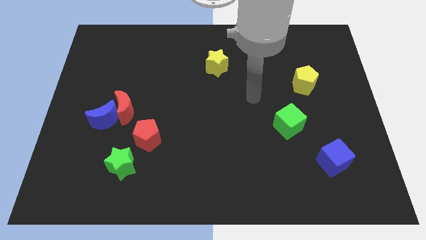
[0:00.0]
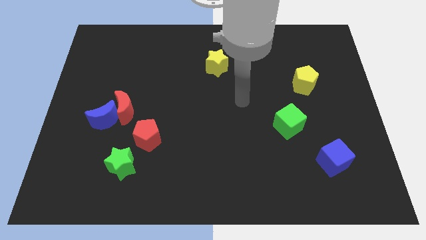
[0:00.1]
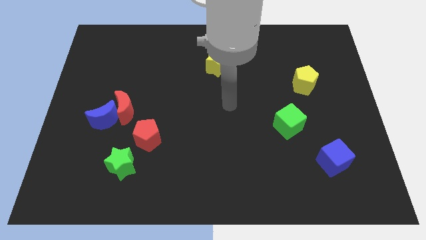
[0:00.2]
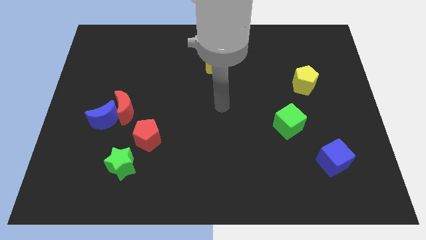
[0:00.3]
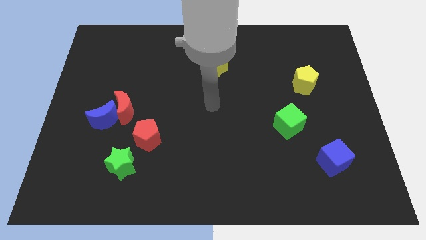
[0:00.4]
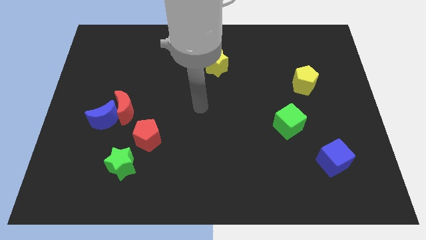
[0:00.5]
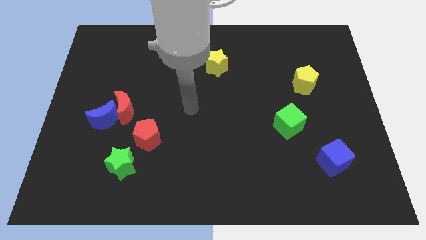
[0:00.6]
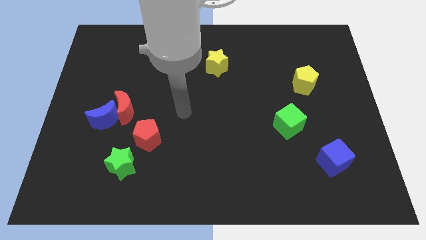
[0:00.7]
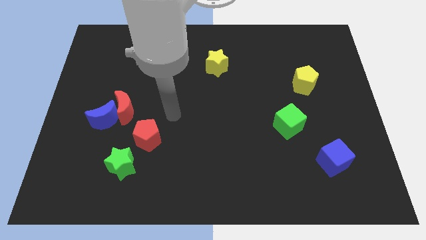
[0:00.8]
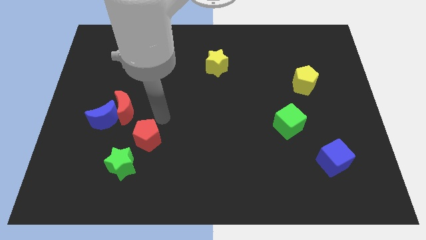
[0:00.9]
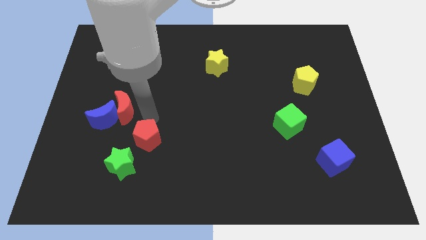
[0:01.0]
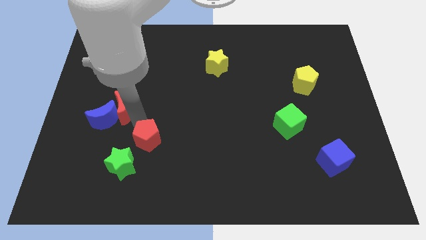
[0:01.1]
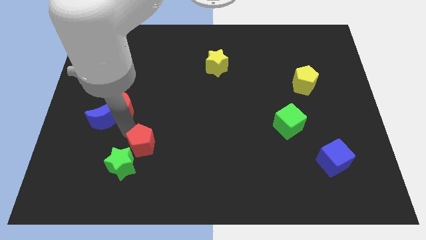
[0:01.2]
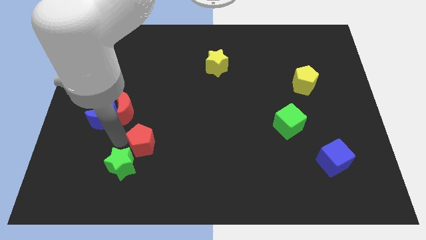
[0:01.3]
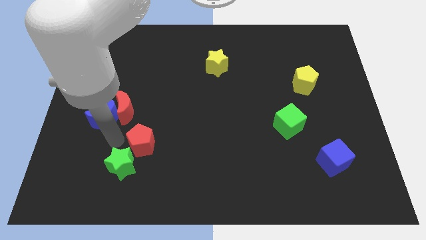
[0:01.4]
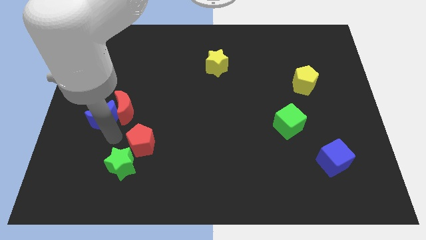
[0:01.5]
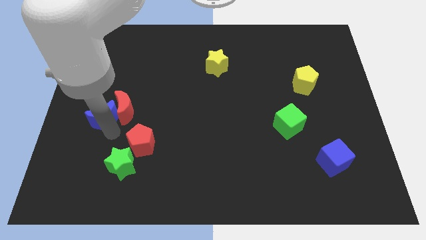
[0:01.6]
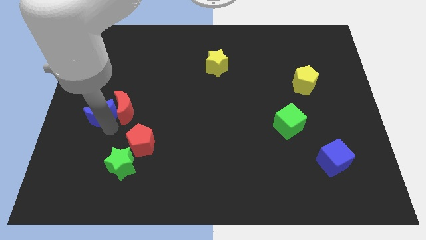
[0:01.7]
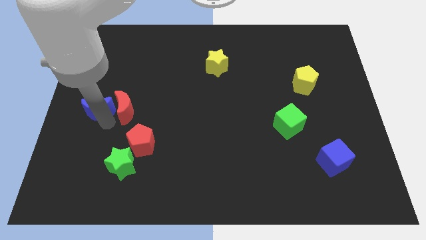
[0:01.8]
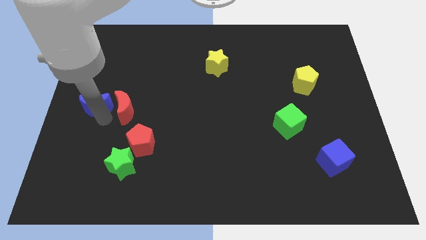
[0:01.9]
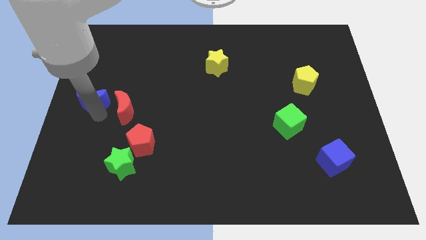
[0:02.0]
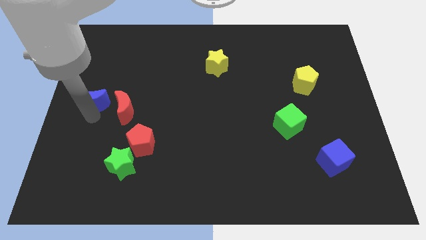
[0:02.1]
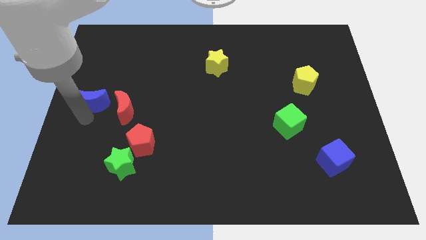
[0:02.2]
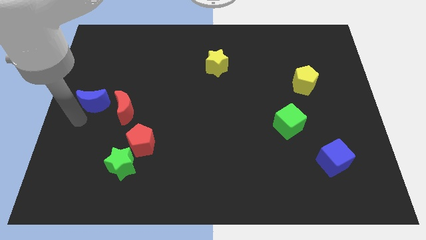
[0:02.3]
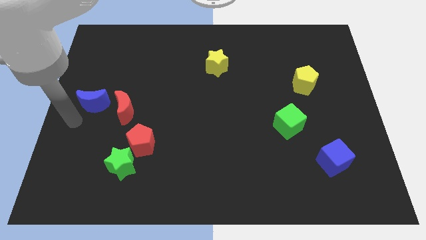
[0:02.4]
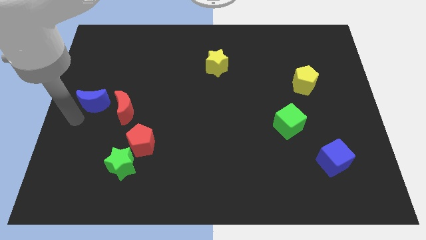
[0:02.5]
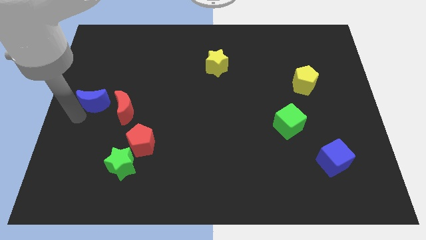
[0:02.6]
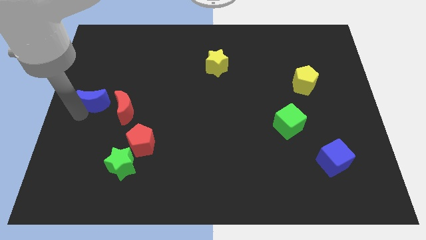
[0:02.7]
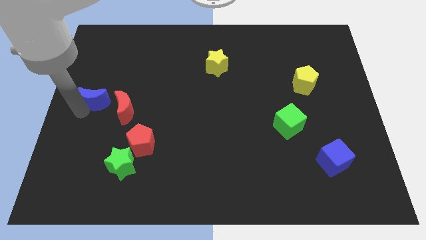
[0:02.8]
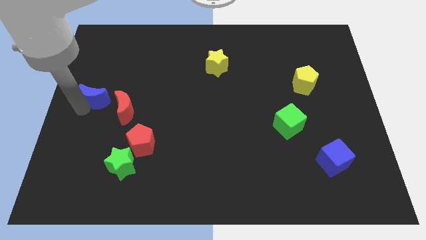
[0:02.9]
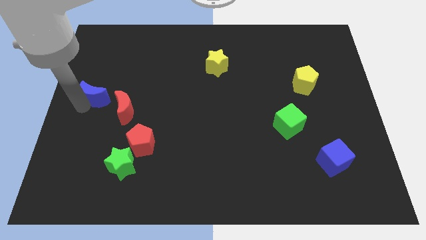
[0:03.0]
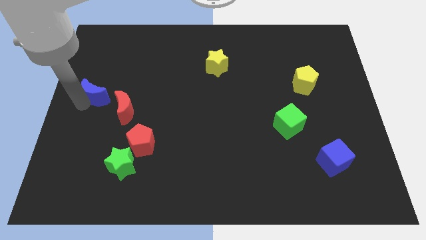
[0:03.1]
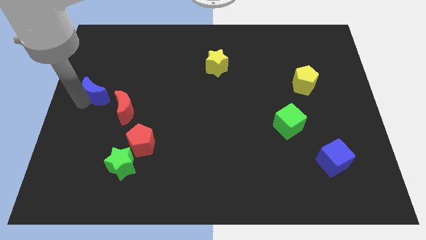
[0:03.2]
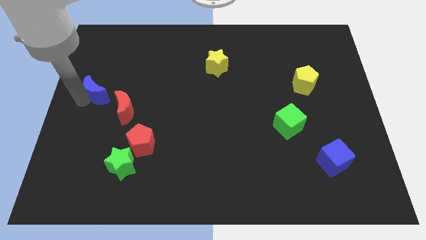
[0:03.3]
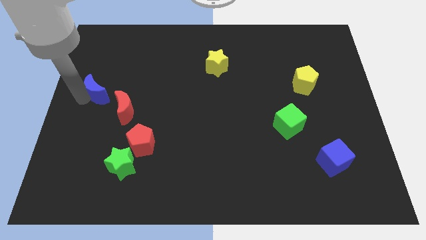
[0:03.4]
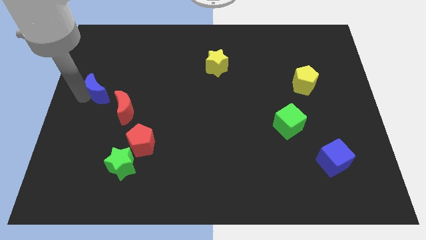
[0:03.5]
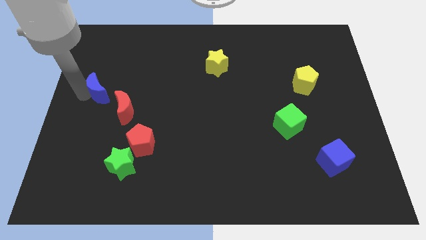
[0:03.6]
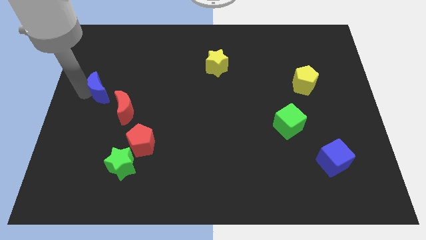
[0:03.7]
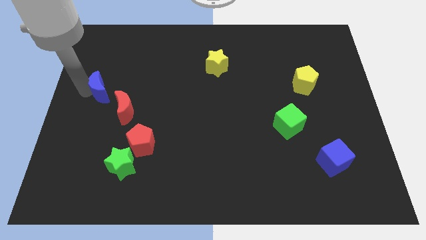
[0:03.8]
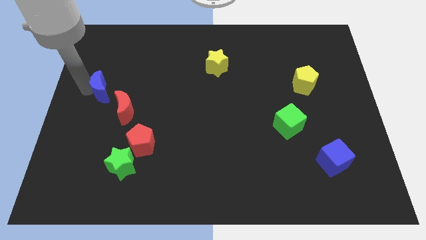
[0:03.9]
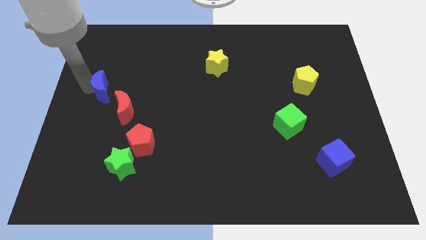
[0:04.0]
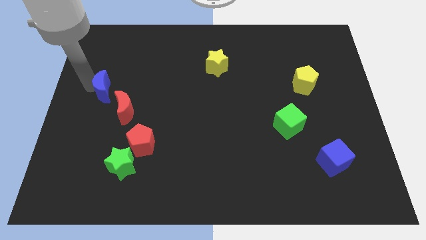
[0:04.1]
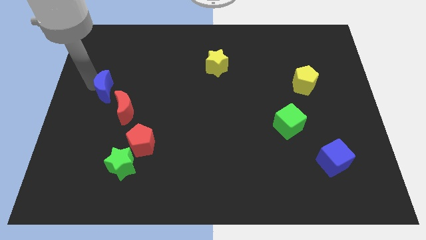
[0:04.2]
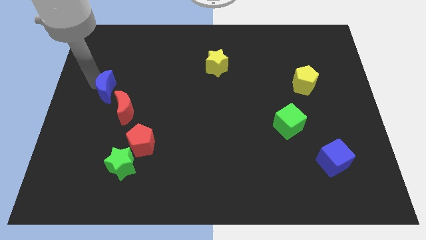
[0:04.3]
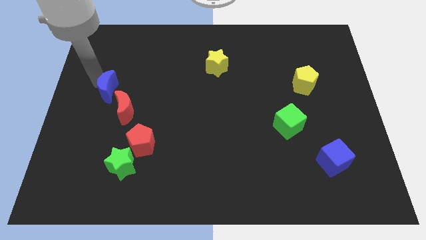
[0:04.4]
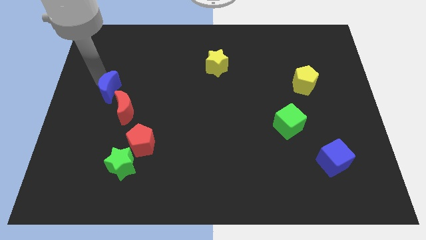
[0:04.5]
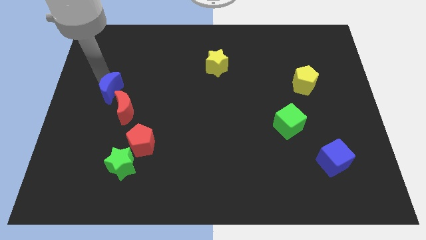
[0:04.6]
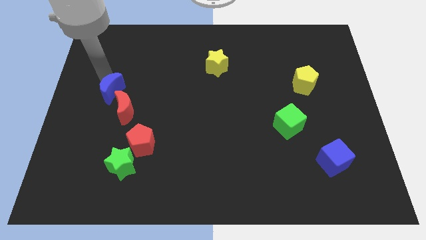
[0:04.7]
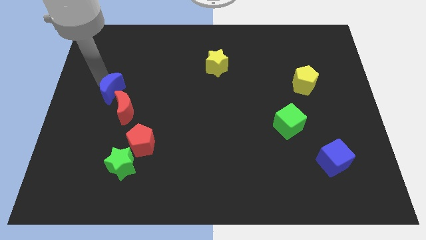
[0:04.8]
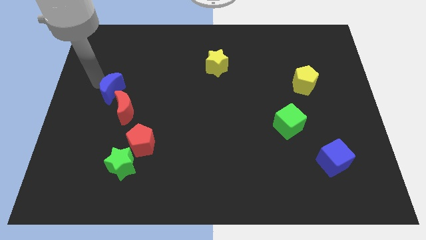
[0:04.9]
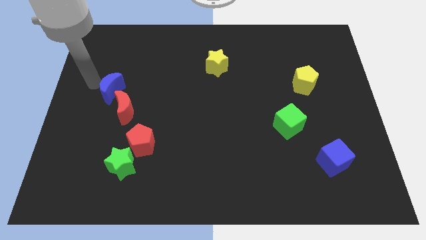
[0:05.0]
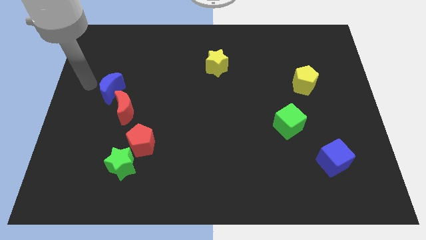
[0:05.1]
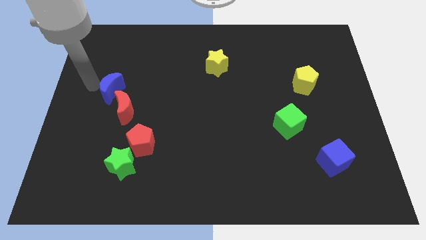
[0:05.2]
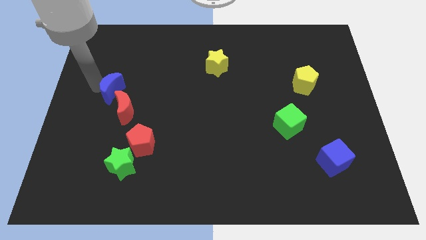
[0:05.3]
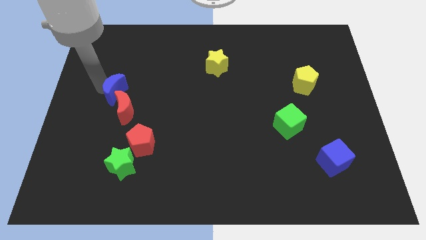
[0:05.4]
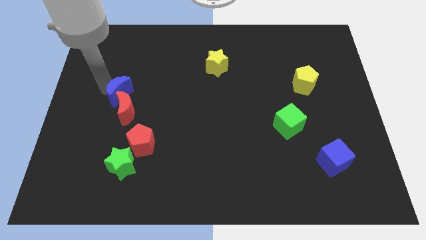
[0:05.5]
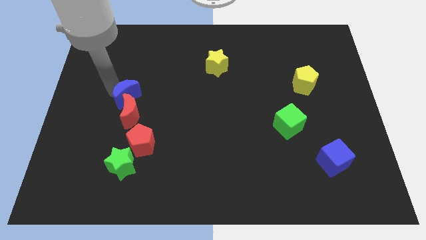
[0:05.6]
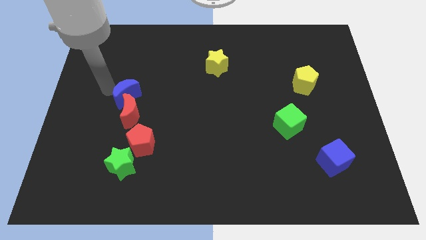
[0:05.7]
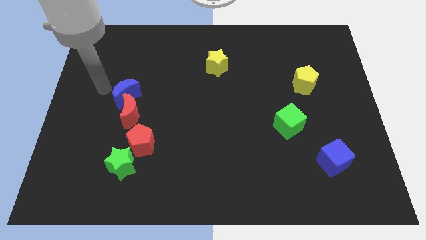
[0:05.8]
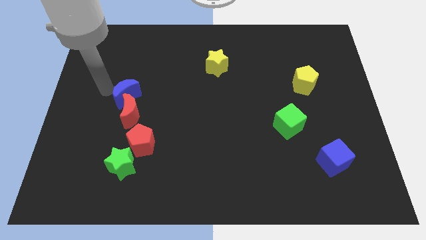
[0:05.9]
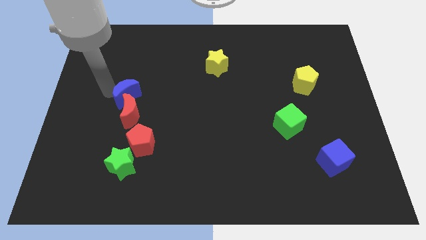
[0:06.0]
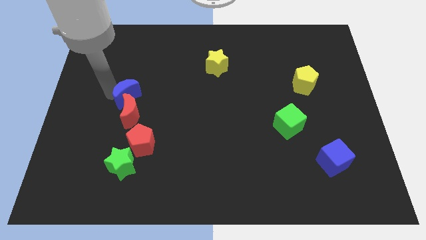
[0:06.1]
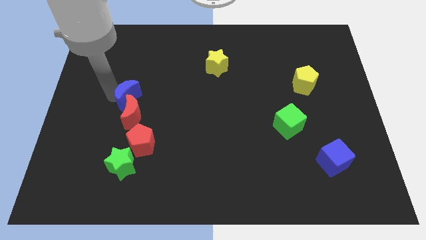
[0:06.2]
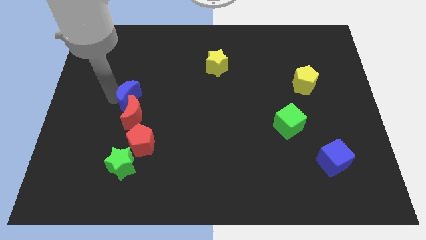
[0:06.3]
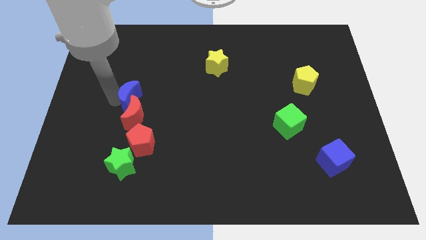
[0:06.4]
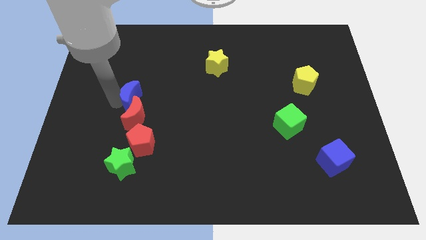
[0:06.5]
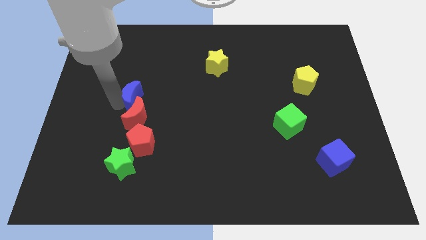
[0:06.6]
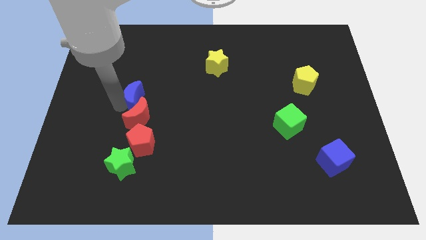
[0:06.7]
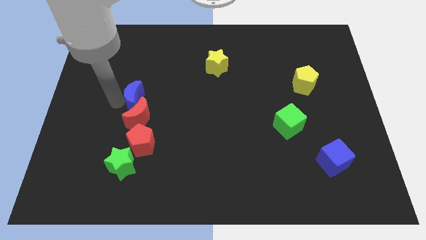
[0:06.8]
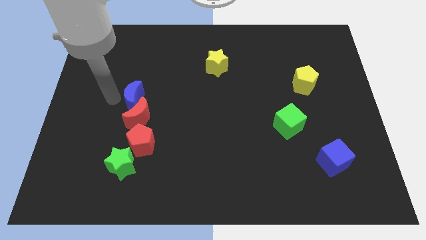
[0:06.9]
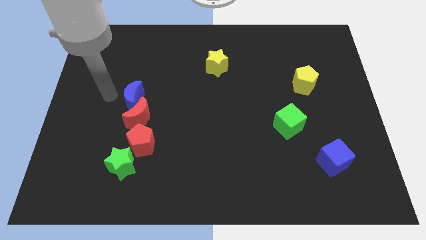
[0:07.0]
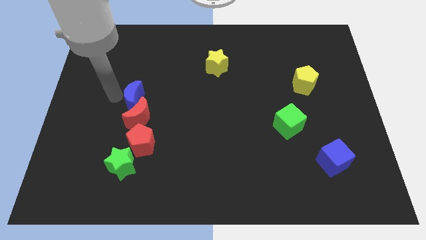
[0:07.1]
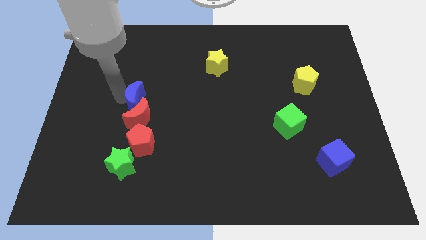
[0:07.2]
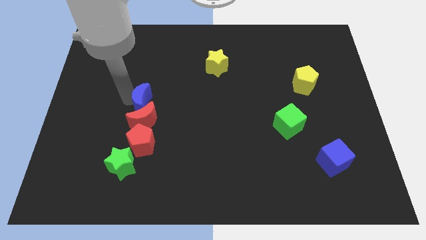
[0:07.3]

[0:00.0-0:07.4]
slightly move the blue moon to the right
